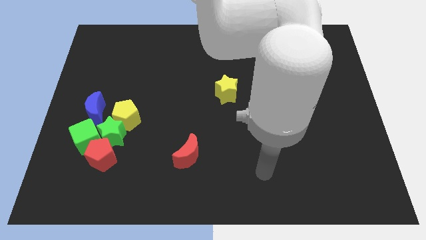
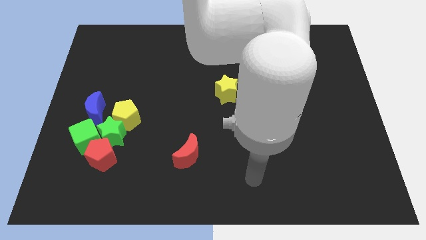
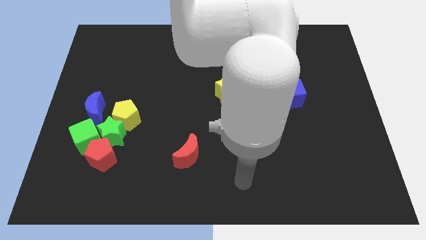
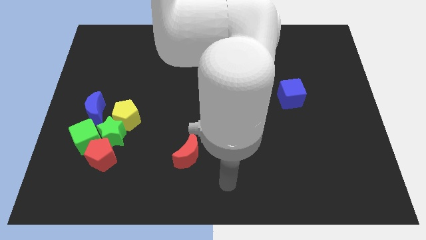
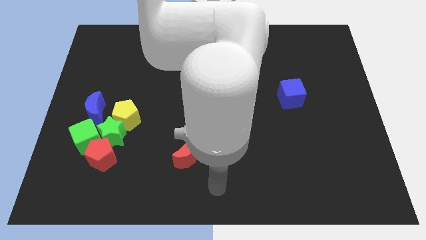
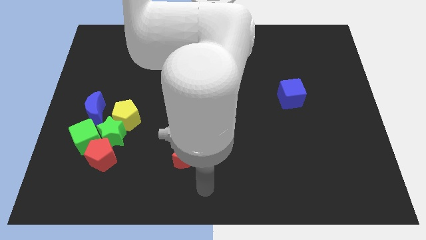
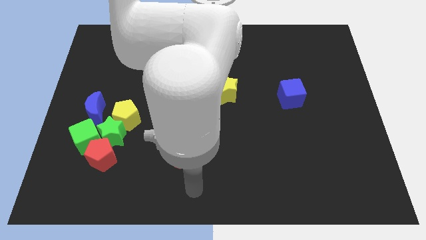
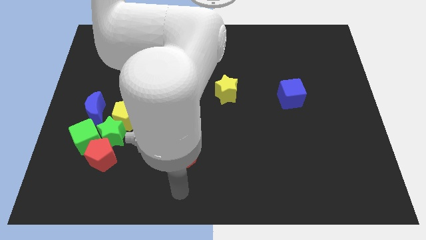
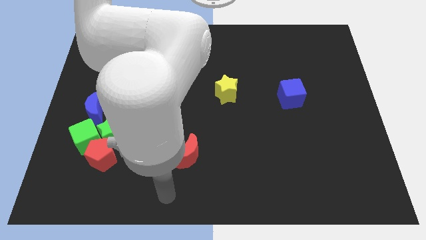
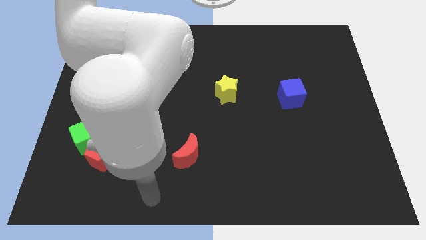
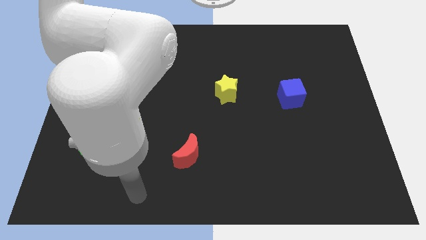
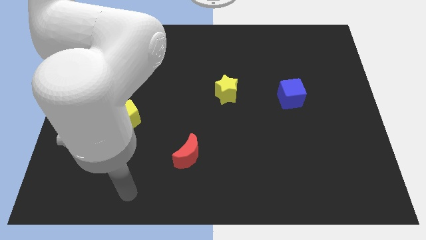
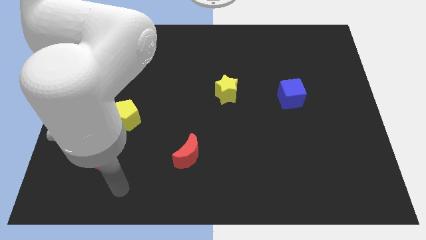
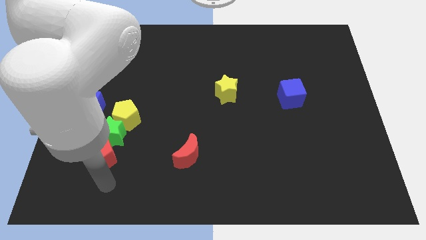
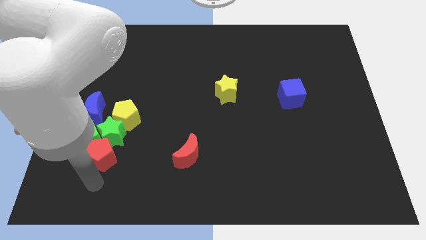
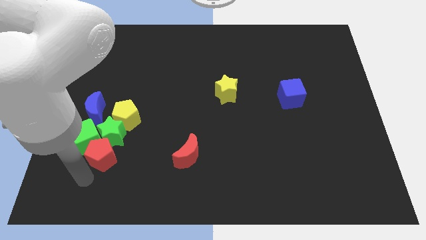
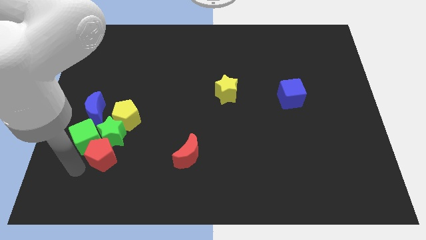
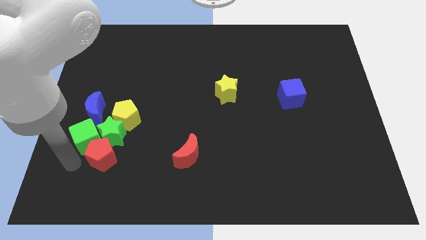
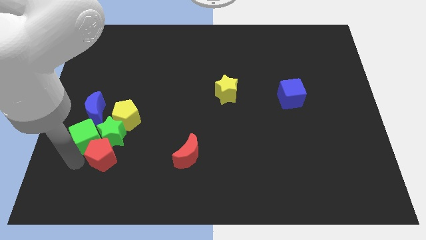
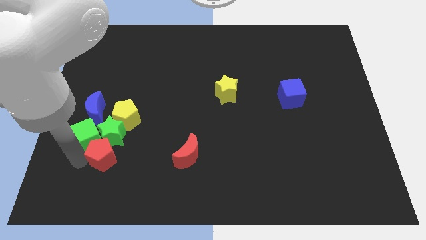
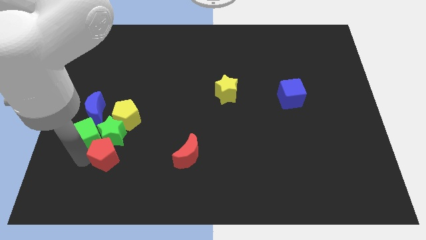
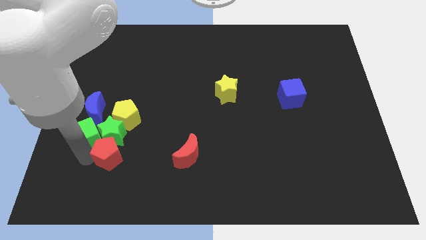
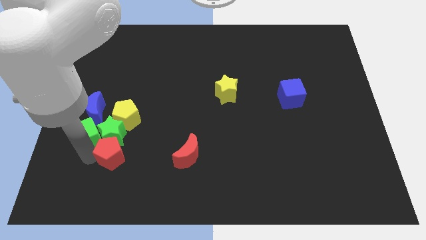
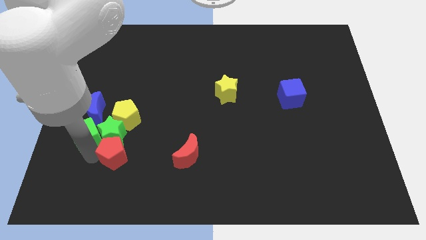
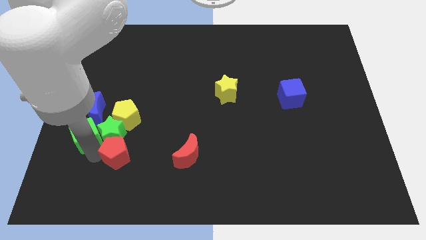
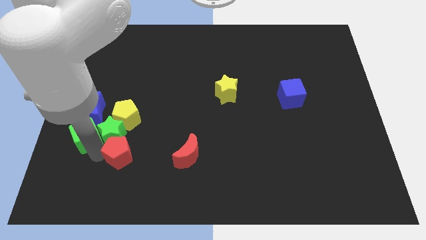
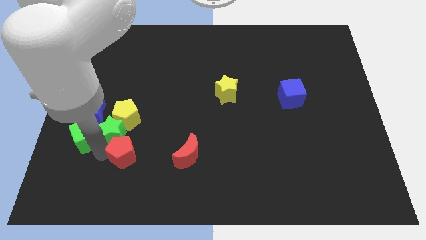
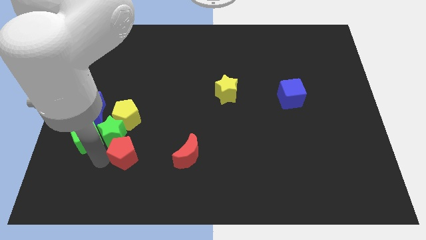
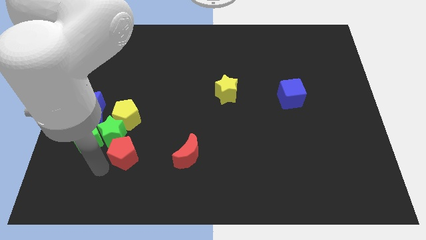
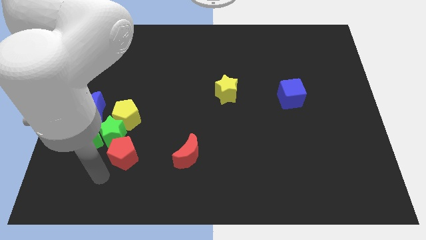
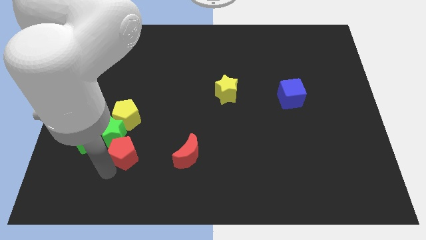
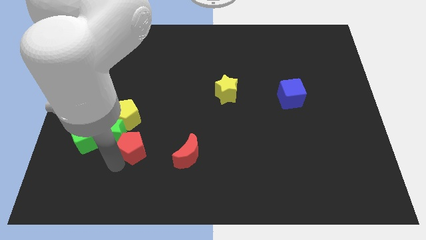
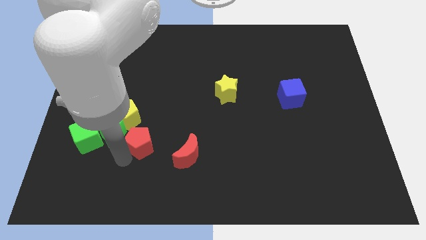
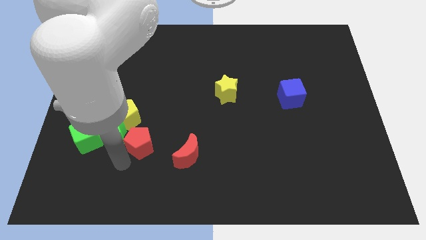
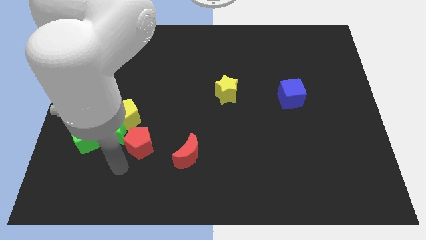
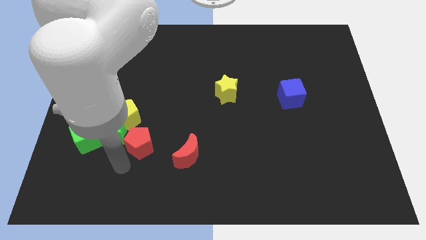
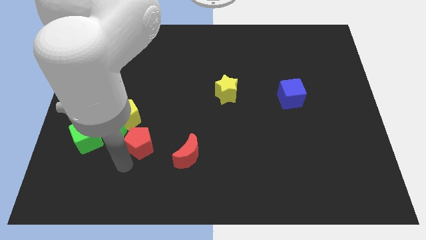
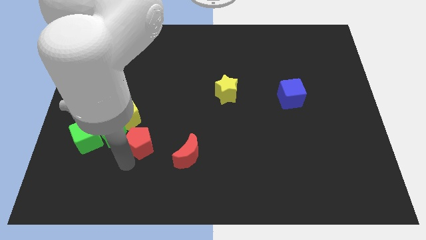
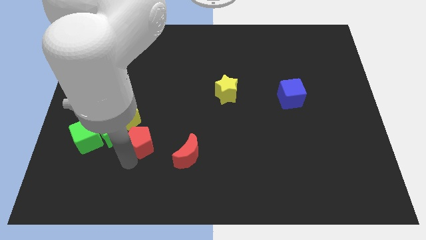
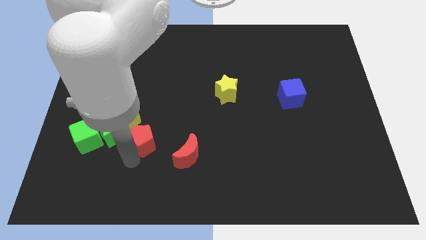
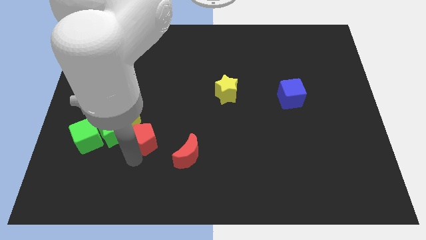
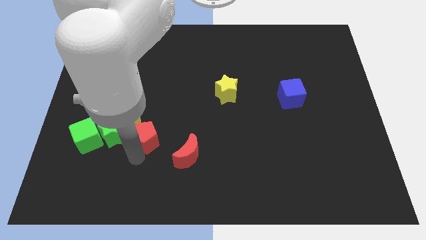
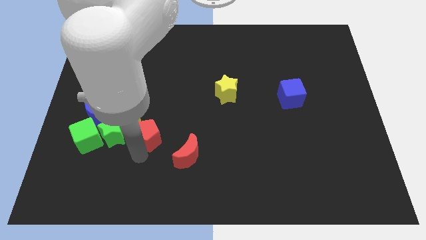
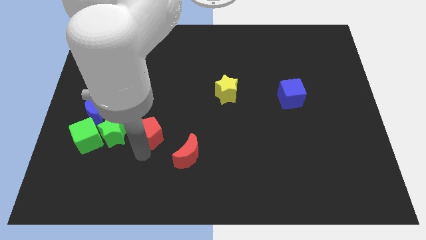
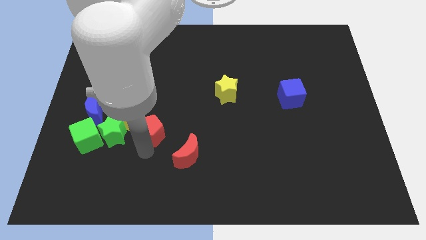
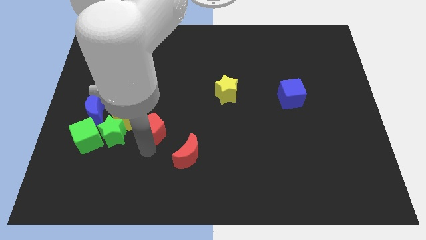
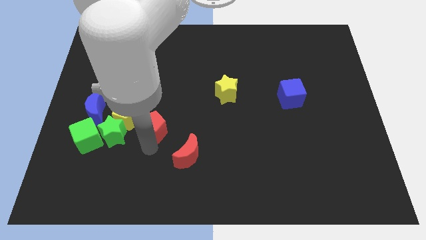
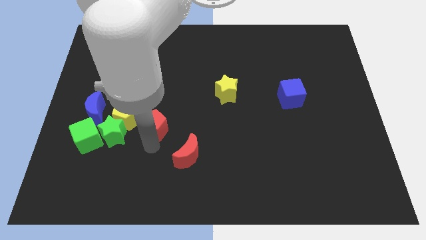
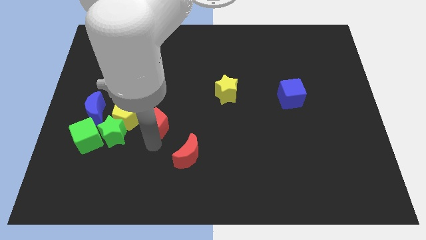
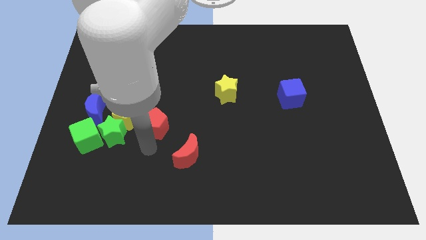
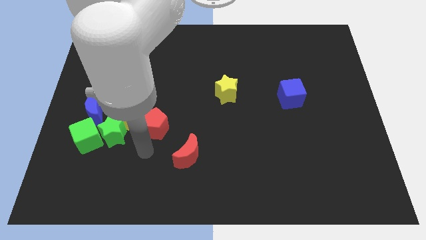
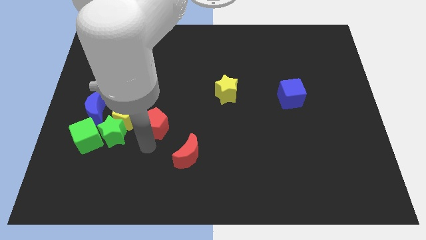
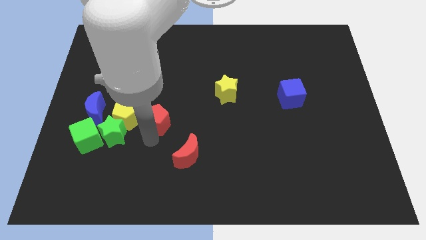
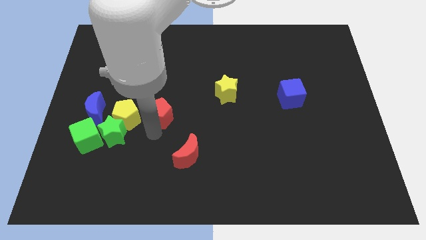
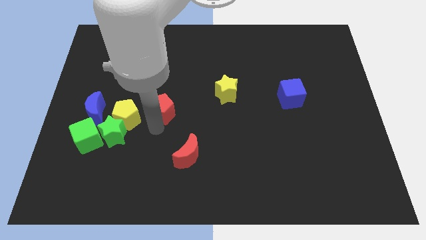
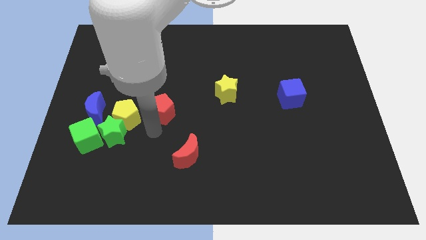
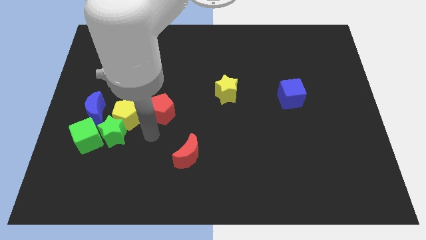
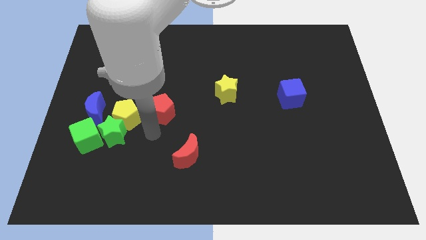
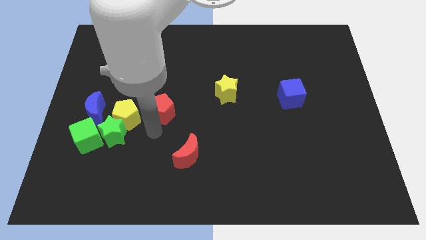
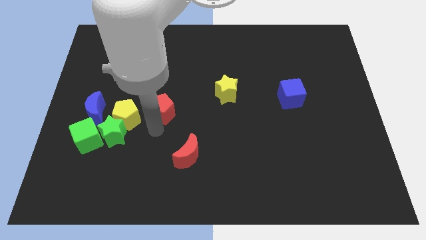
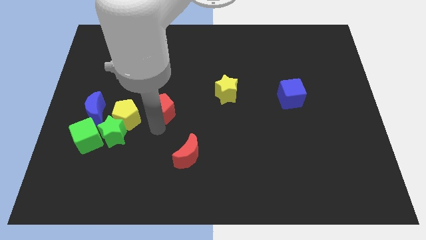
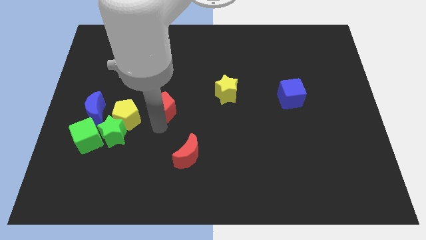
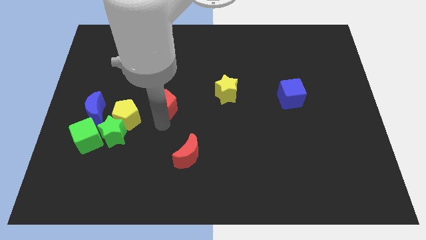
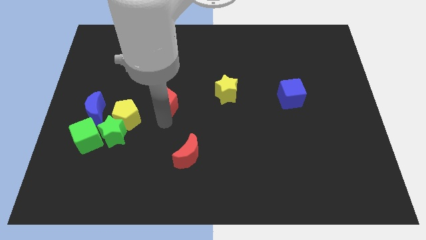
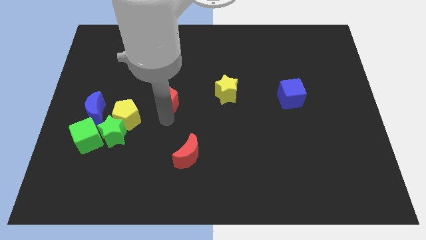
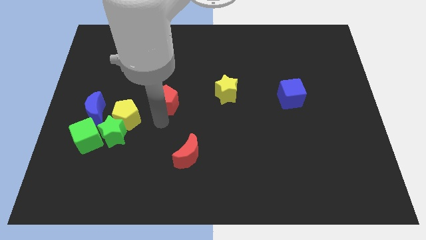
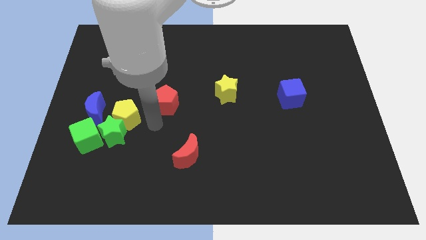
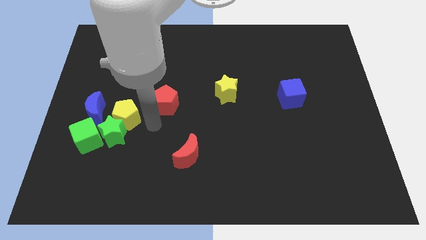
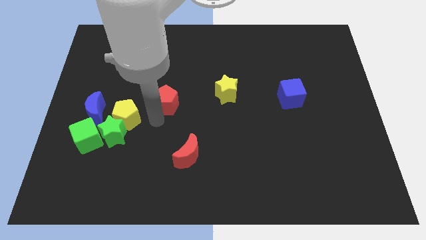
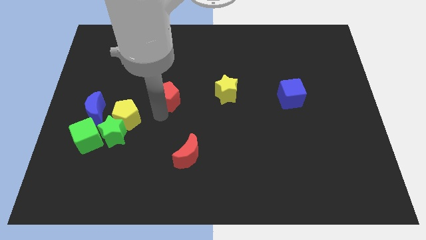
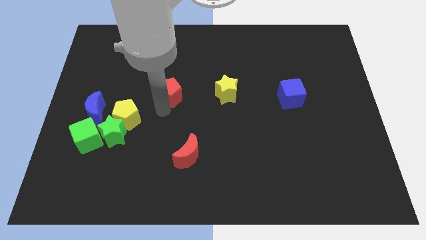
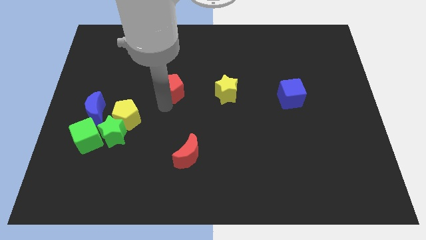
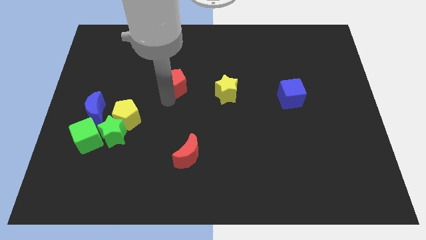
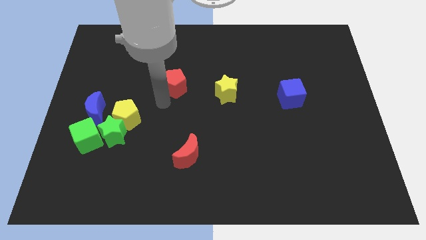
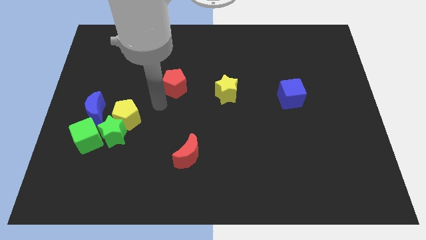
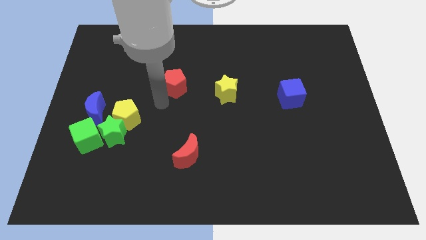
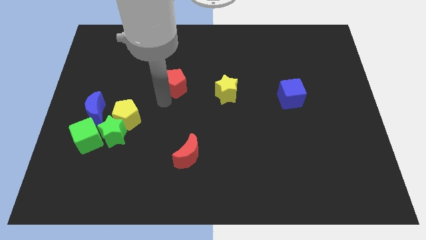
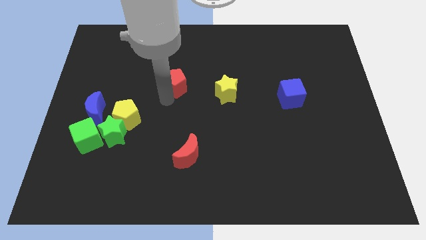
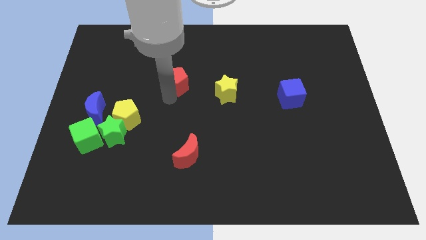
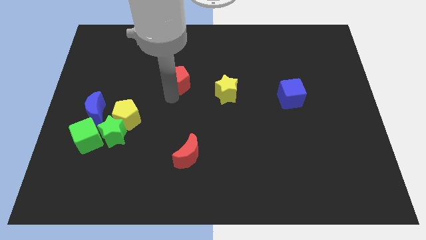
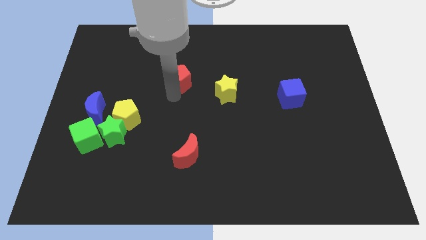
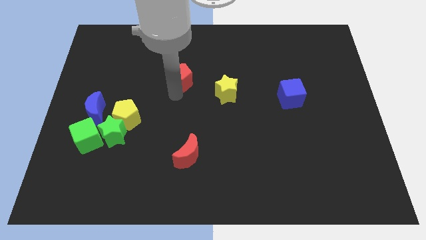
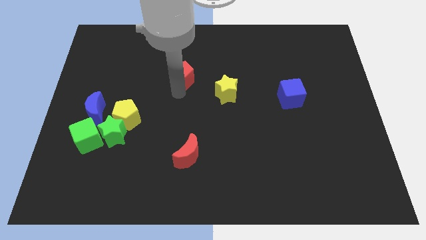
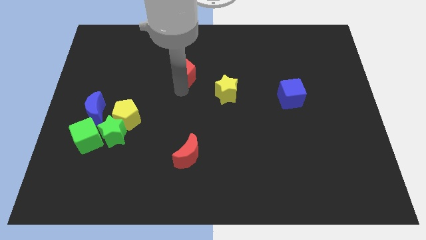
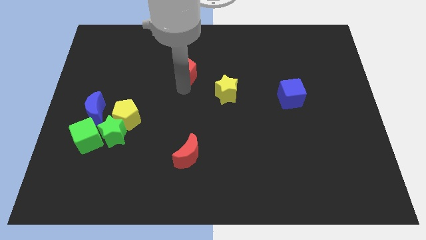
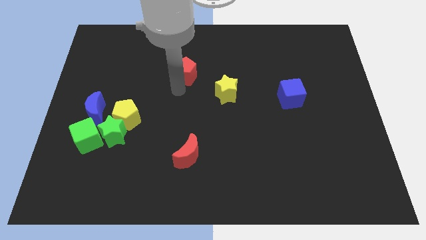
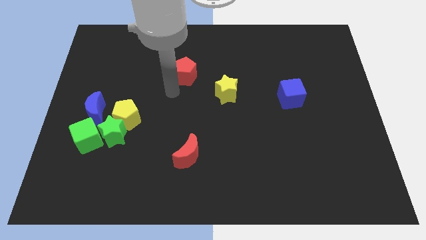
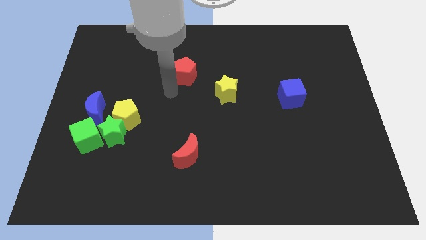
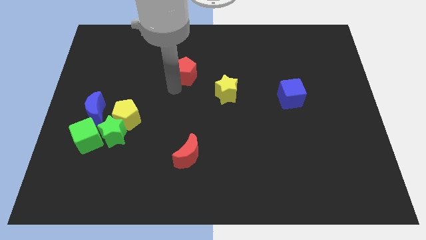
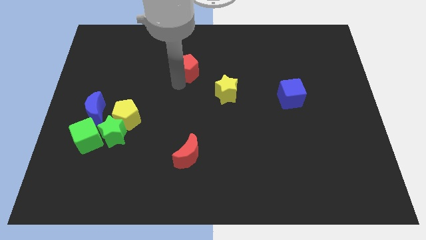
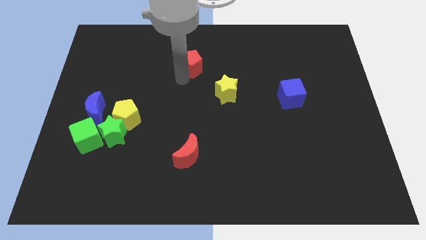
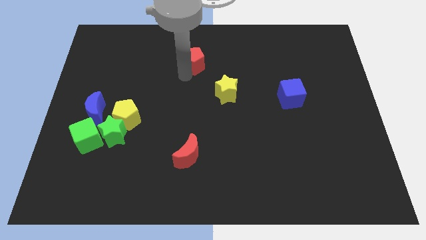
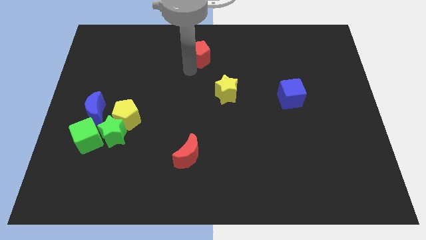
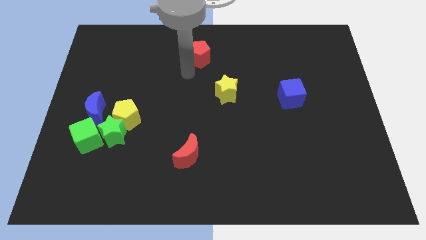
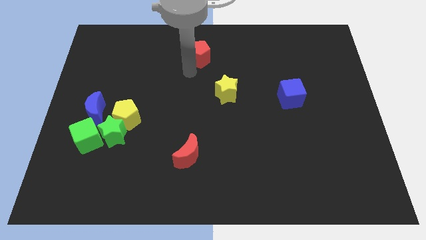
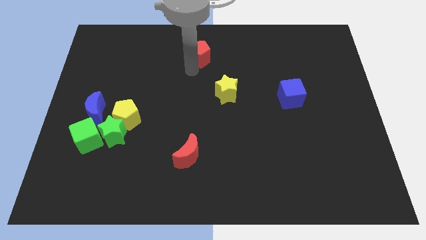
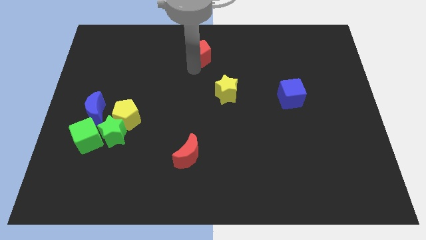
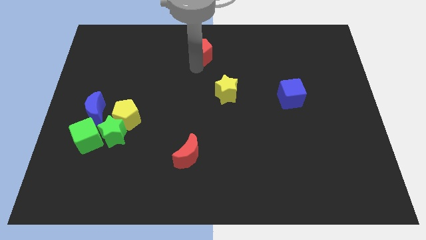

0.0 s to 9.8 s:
slide the red pentagon to the top side
